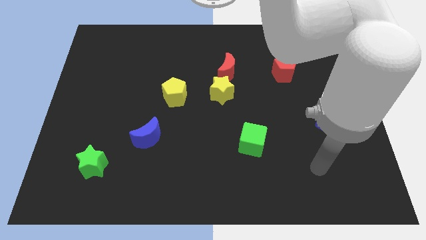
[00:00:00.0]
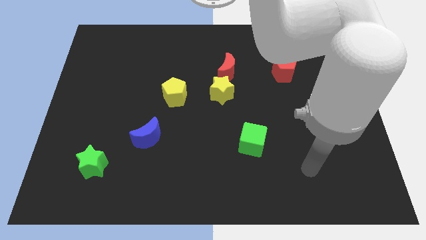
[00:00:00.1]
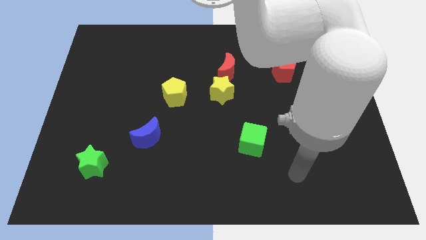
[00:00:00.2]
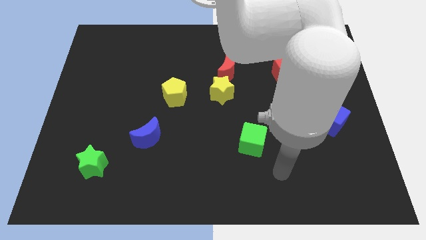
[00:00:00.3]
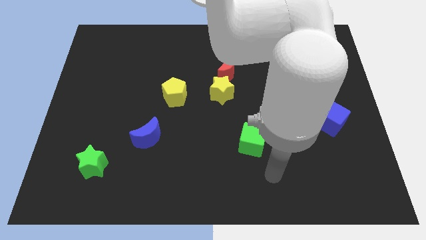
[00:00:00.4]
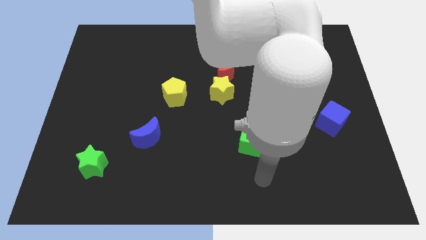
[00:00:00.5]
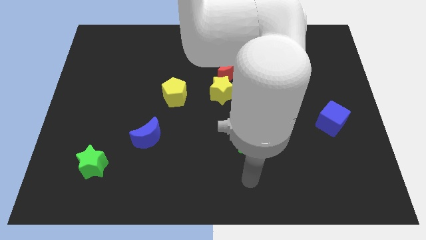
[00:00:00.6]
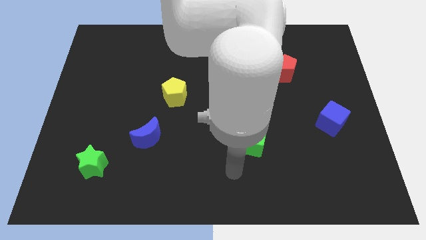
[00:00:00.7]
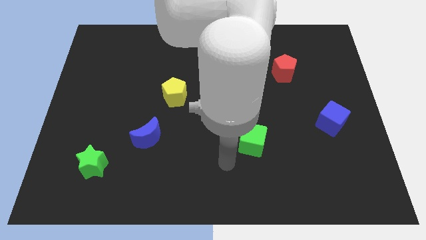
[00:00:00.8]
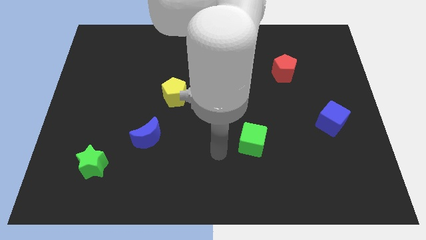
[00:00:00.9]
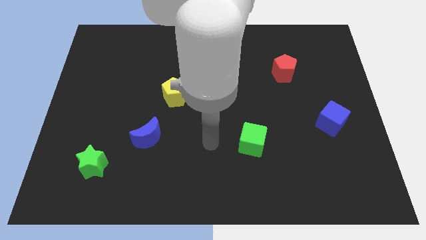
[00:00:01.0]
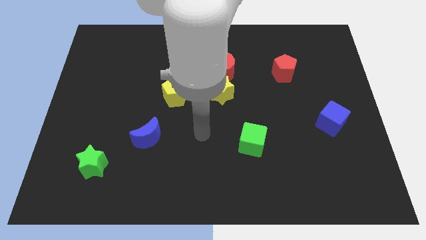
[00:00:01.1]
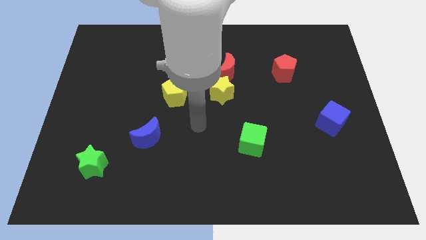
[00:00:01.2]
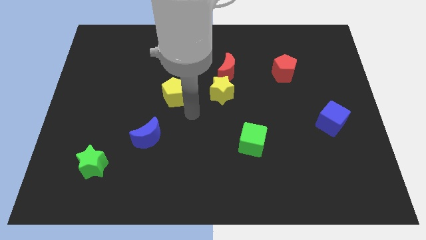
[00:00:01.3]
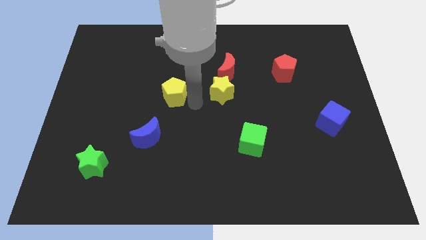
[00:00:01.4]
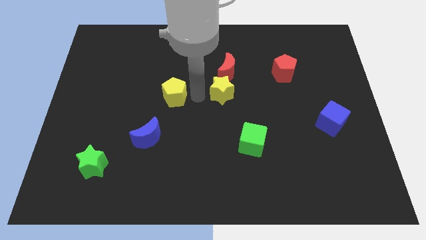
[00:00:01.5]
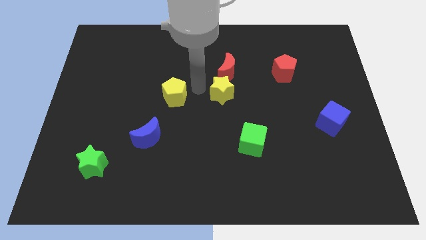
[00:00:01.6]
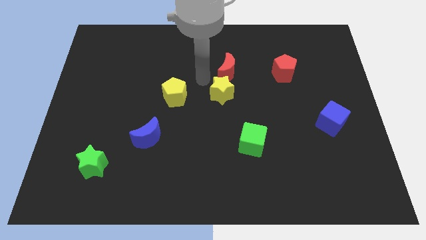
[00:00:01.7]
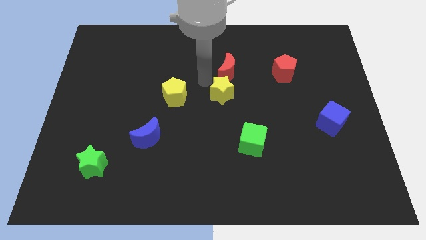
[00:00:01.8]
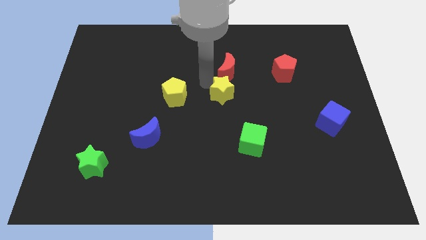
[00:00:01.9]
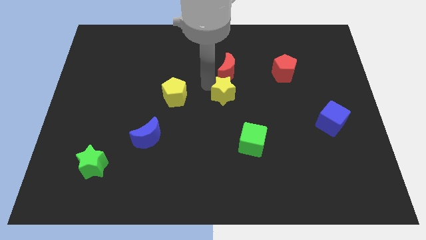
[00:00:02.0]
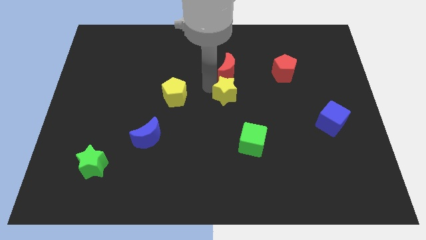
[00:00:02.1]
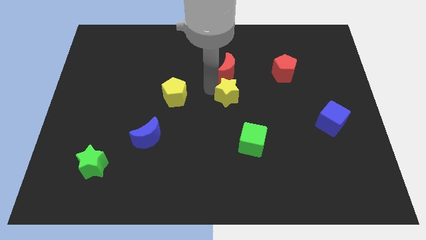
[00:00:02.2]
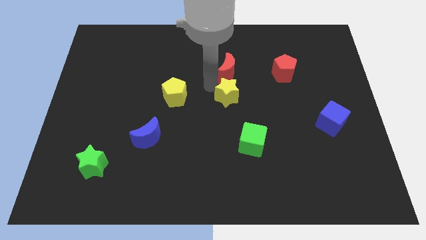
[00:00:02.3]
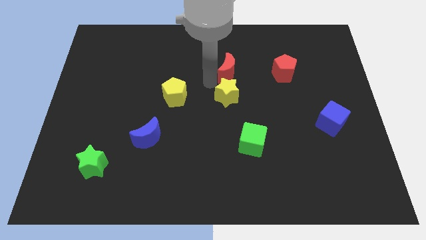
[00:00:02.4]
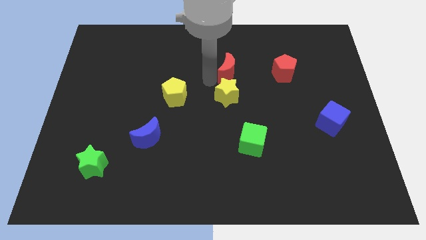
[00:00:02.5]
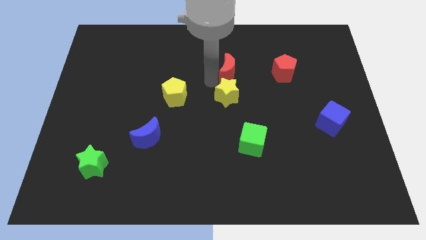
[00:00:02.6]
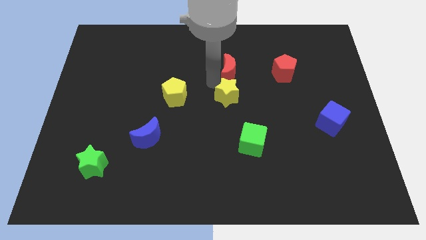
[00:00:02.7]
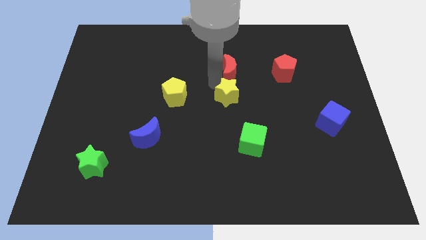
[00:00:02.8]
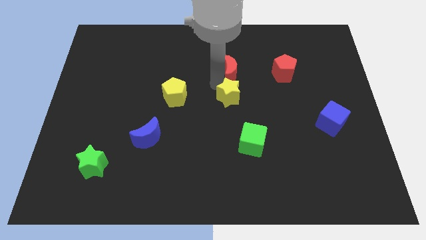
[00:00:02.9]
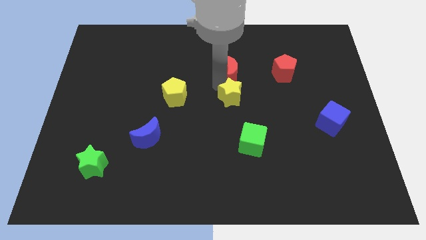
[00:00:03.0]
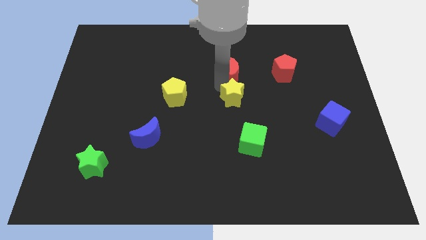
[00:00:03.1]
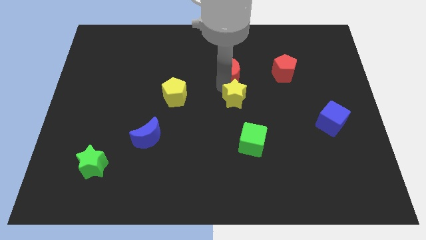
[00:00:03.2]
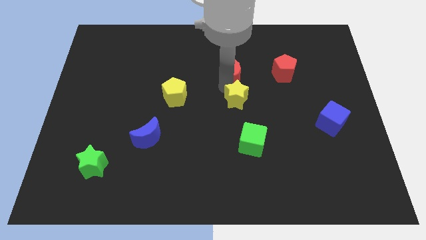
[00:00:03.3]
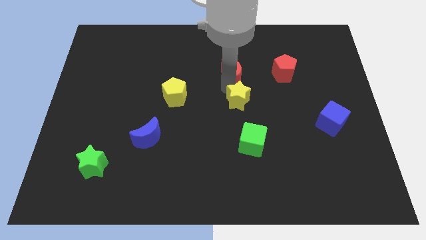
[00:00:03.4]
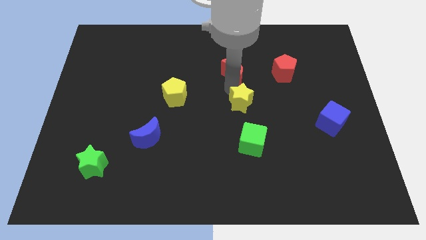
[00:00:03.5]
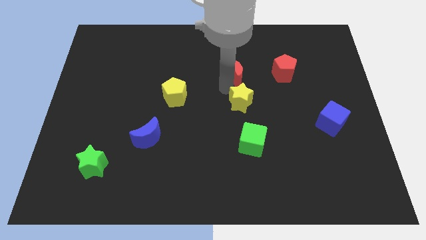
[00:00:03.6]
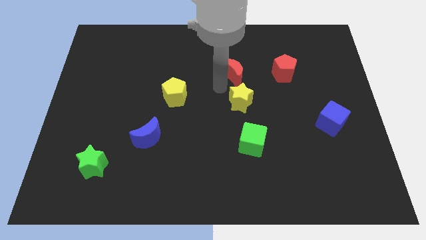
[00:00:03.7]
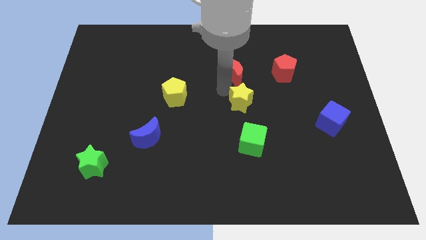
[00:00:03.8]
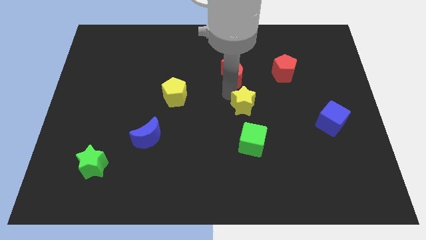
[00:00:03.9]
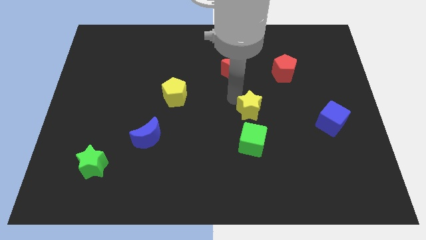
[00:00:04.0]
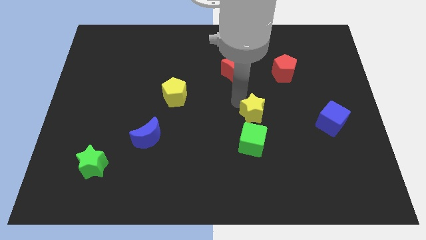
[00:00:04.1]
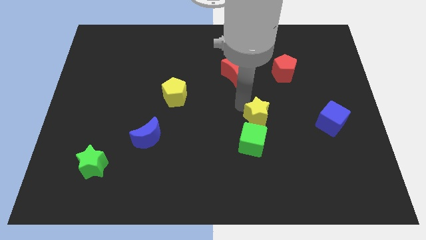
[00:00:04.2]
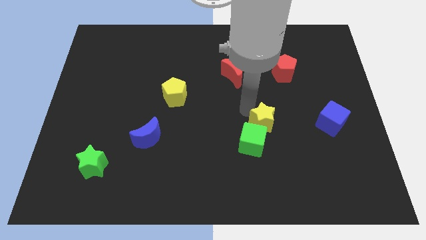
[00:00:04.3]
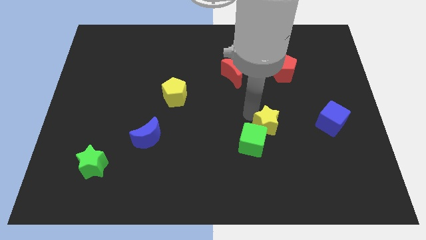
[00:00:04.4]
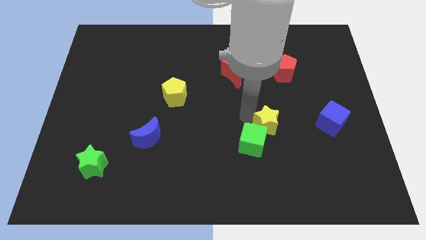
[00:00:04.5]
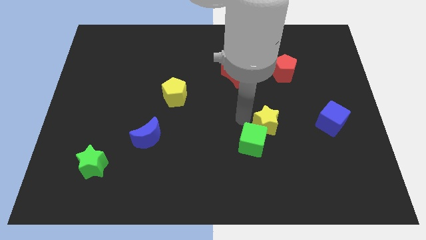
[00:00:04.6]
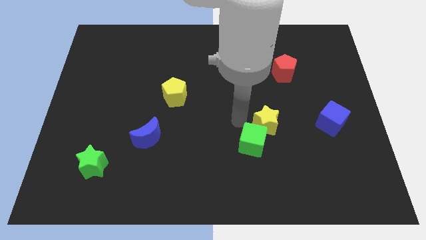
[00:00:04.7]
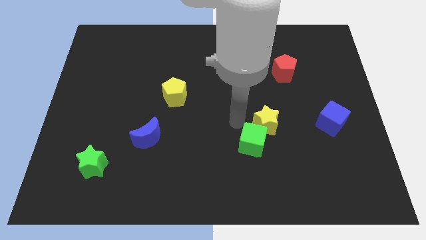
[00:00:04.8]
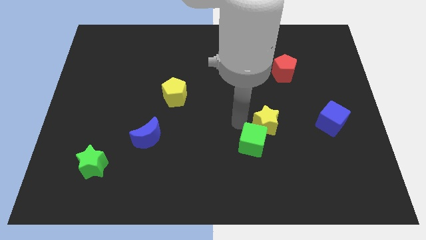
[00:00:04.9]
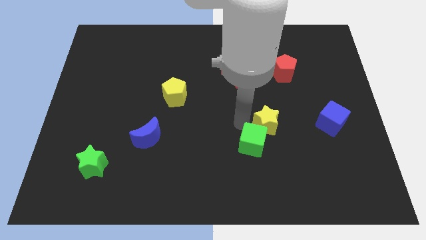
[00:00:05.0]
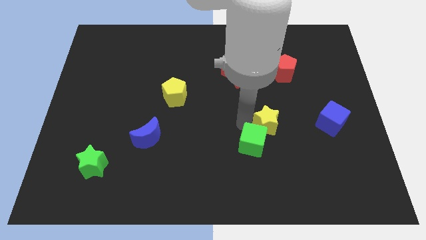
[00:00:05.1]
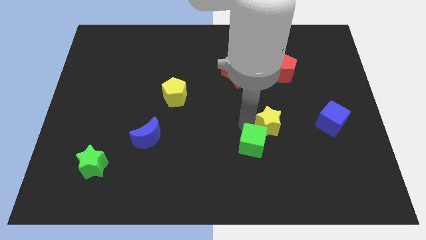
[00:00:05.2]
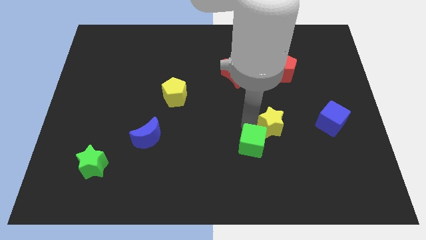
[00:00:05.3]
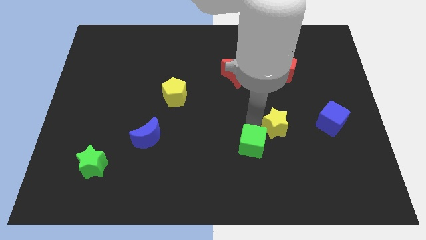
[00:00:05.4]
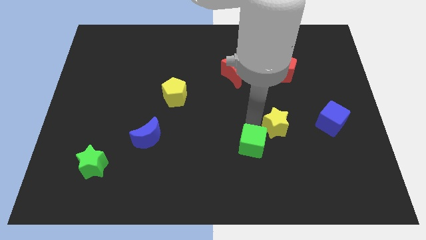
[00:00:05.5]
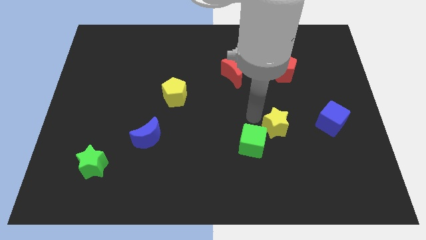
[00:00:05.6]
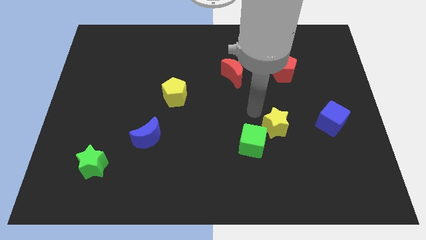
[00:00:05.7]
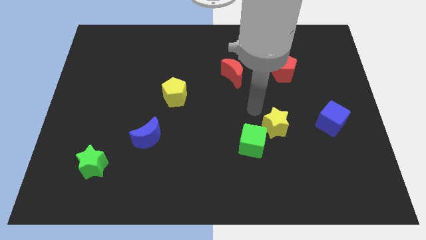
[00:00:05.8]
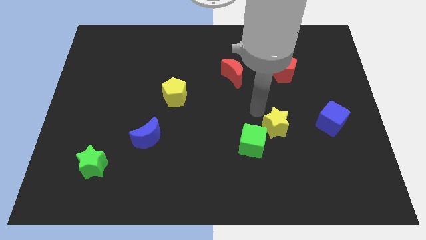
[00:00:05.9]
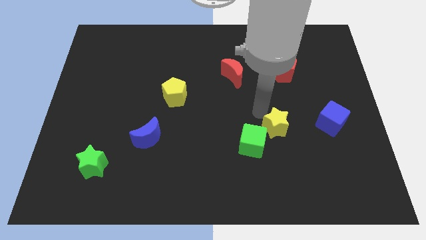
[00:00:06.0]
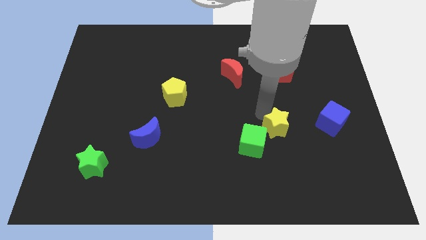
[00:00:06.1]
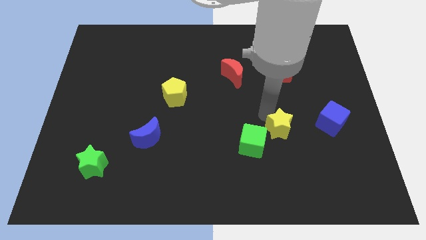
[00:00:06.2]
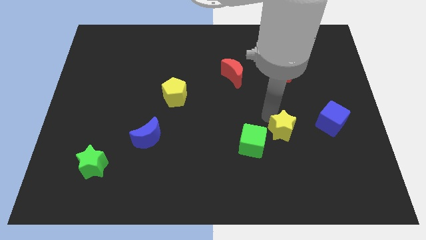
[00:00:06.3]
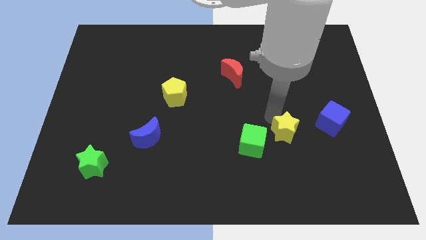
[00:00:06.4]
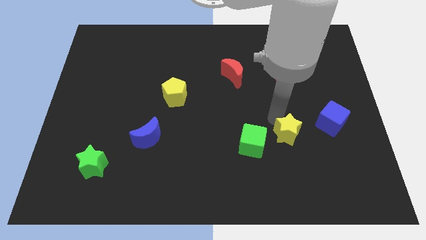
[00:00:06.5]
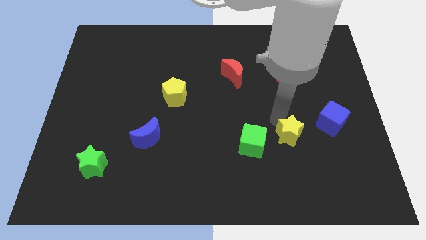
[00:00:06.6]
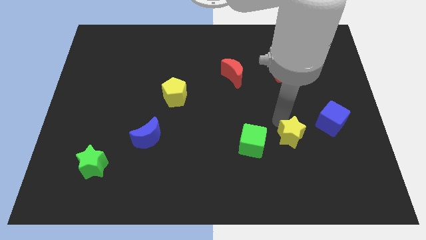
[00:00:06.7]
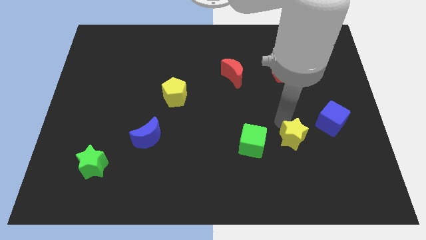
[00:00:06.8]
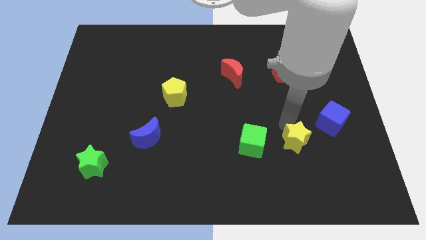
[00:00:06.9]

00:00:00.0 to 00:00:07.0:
slide the yellow star diagonally down and right

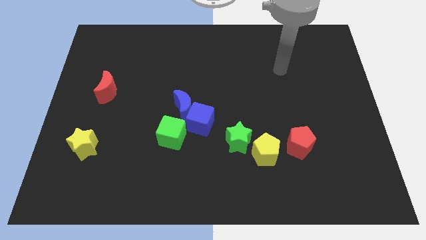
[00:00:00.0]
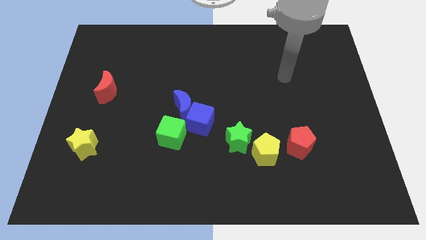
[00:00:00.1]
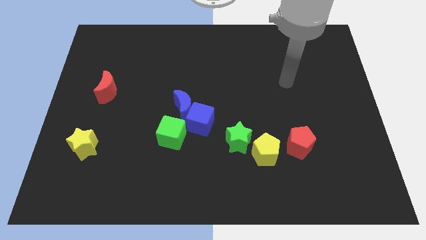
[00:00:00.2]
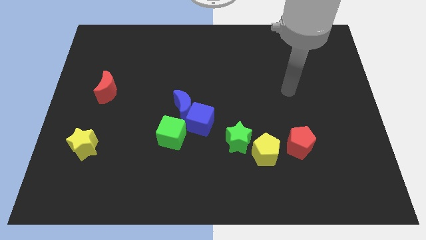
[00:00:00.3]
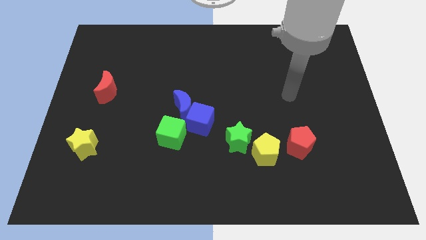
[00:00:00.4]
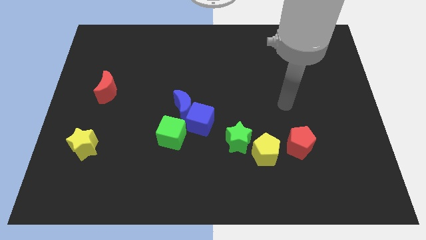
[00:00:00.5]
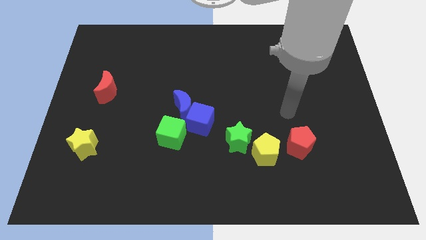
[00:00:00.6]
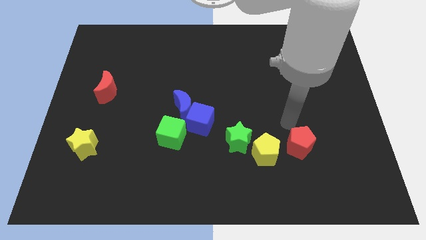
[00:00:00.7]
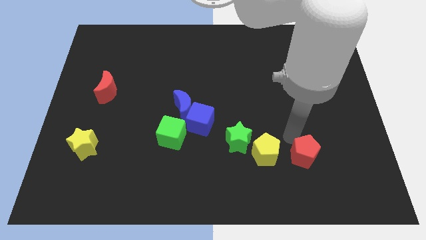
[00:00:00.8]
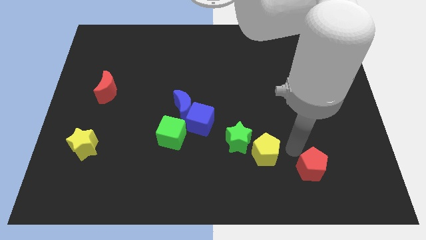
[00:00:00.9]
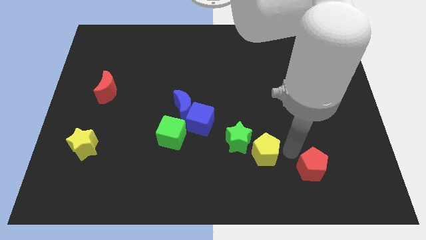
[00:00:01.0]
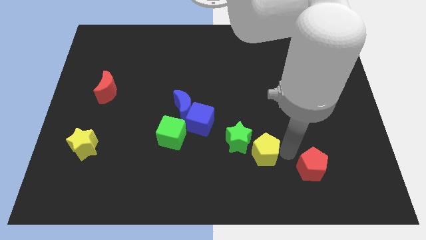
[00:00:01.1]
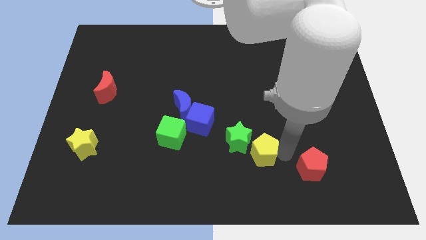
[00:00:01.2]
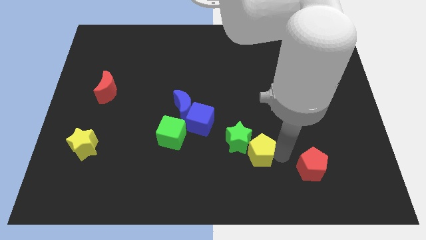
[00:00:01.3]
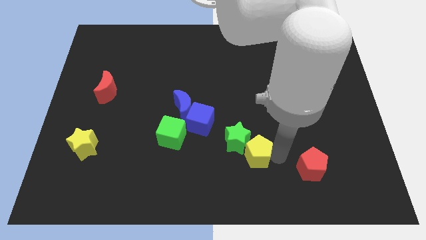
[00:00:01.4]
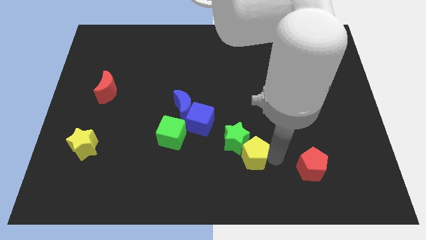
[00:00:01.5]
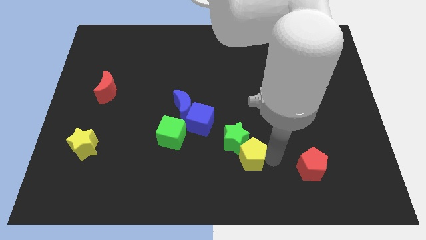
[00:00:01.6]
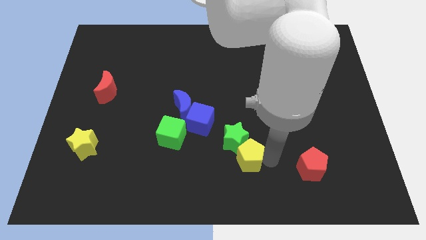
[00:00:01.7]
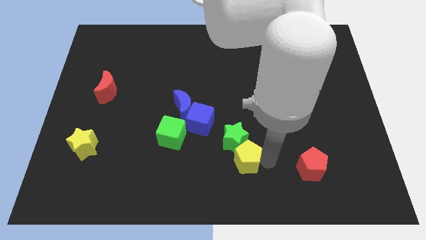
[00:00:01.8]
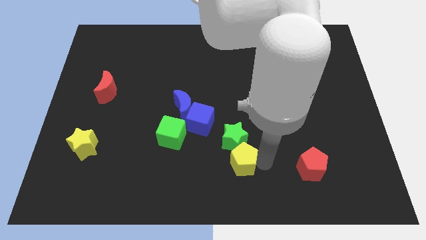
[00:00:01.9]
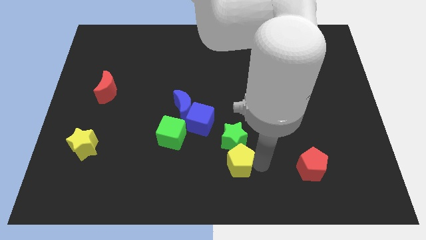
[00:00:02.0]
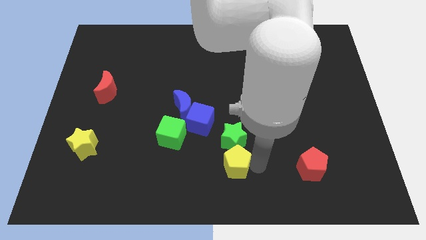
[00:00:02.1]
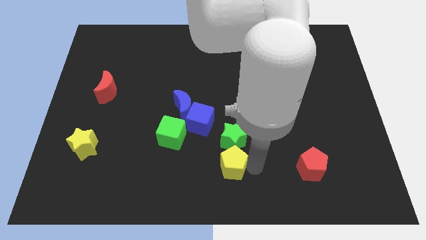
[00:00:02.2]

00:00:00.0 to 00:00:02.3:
move the yellow pentagon left slightly
